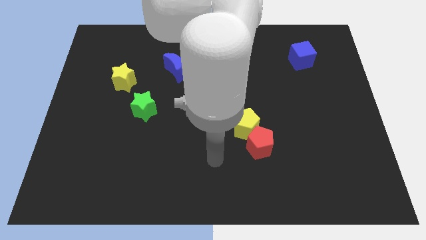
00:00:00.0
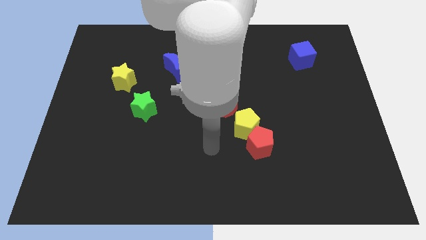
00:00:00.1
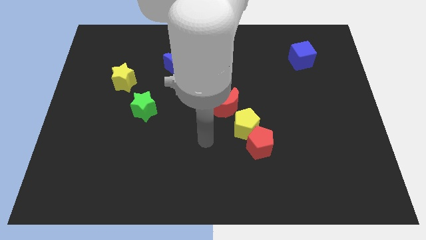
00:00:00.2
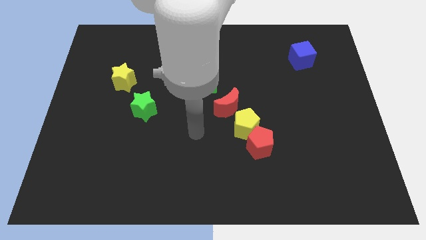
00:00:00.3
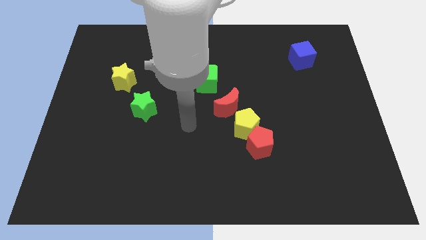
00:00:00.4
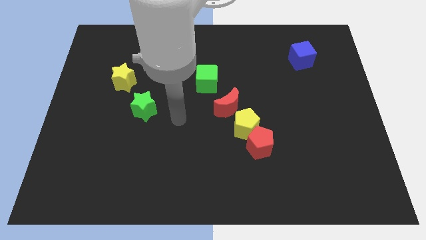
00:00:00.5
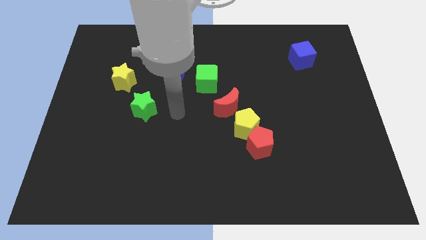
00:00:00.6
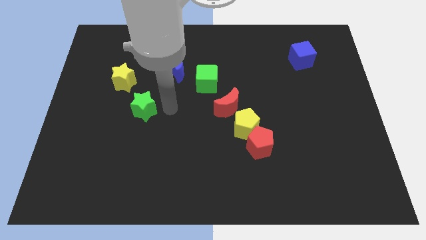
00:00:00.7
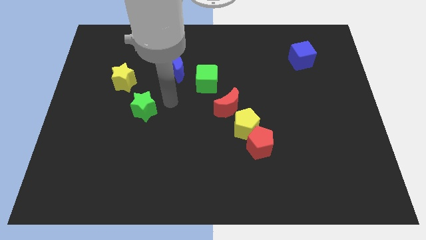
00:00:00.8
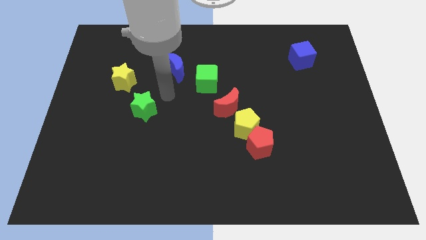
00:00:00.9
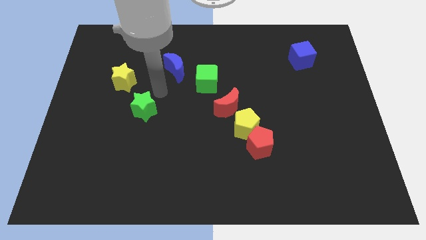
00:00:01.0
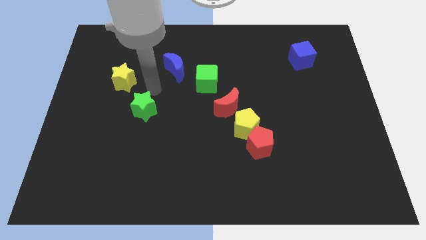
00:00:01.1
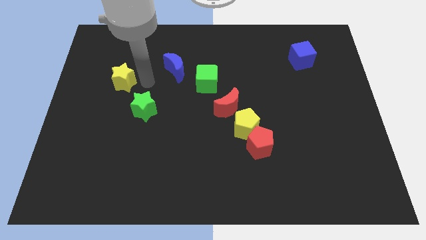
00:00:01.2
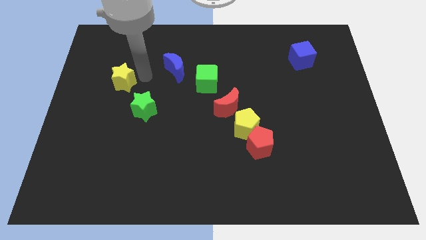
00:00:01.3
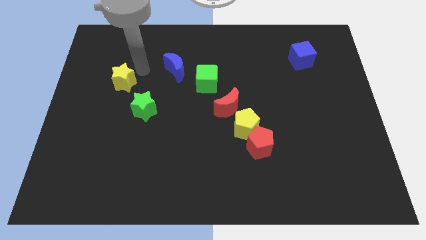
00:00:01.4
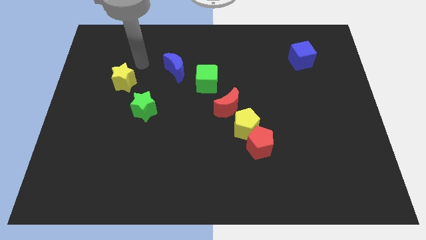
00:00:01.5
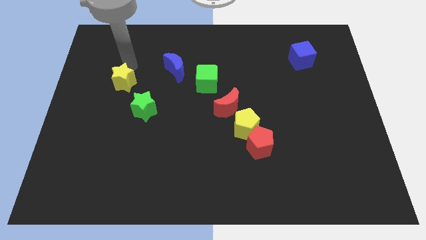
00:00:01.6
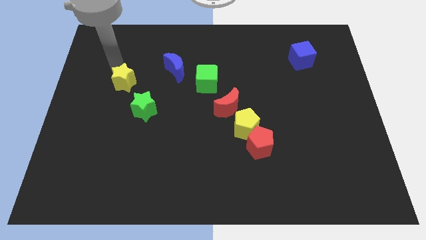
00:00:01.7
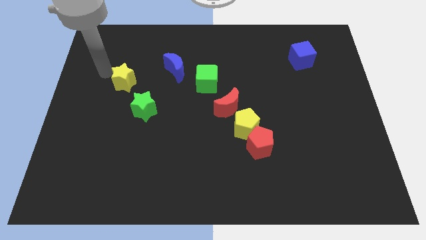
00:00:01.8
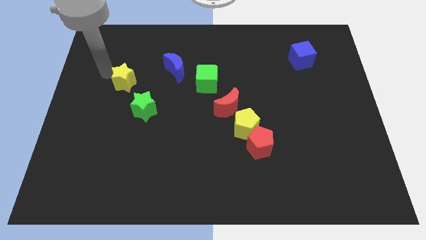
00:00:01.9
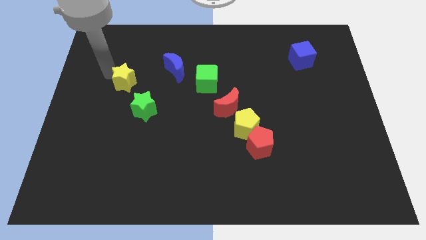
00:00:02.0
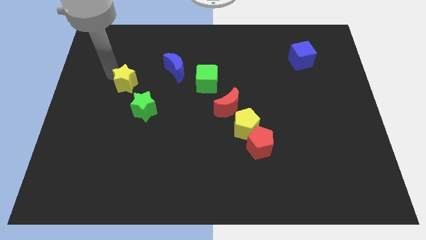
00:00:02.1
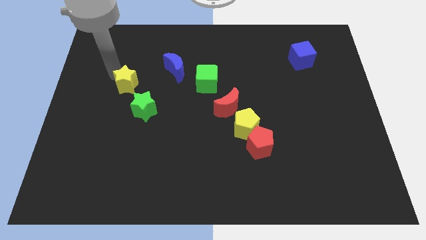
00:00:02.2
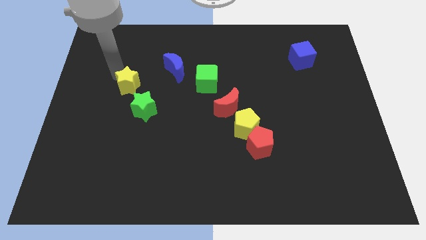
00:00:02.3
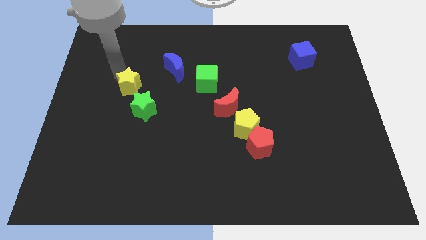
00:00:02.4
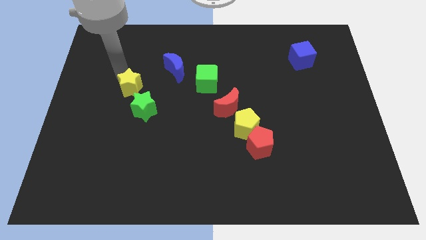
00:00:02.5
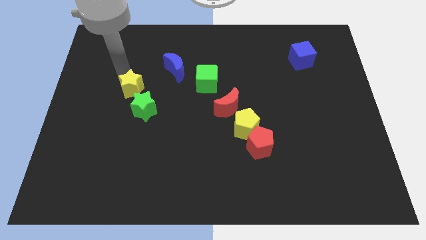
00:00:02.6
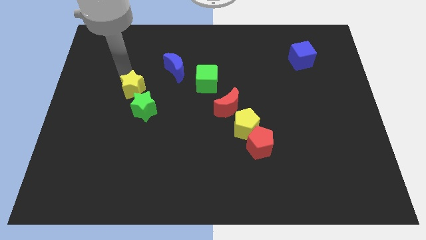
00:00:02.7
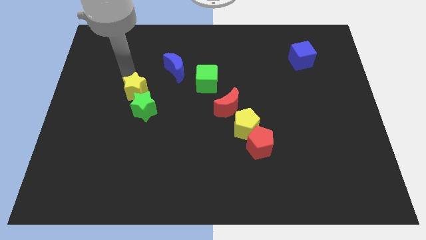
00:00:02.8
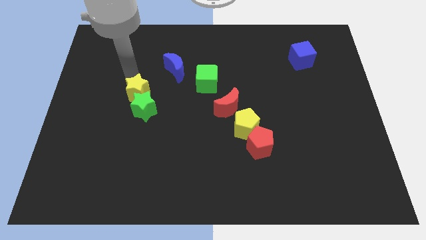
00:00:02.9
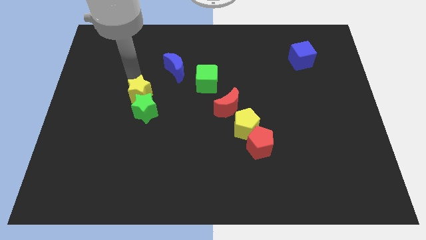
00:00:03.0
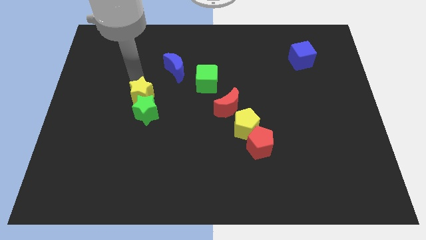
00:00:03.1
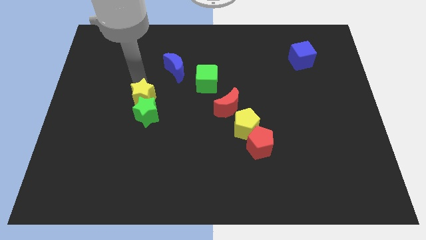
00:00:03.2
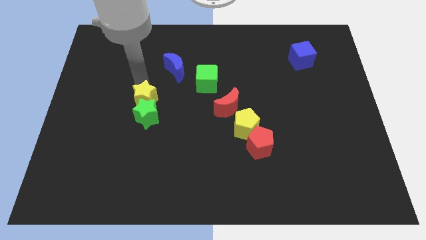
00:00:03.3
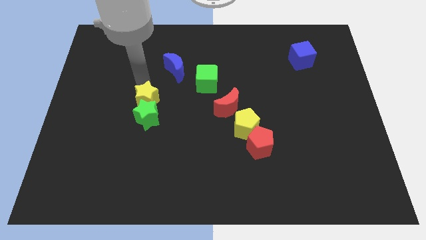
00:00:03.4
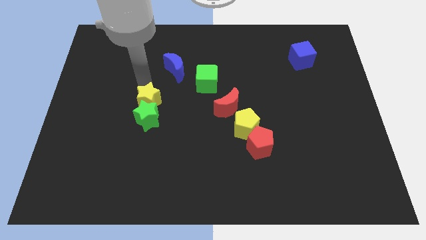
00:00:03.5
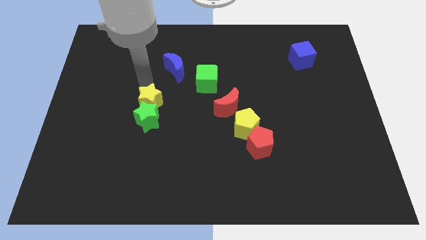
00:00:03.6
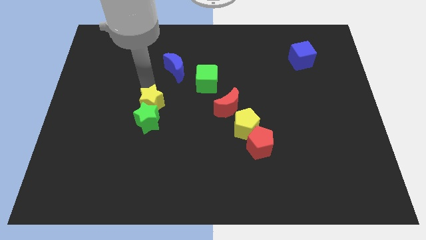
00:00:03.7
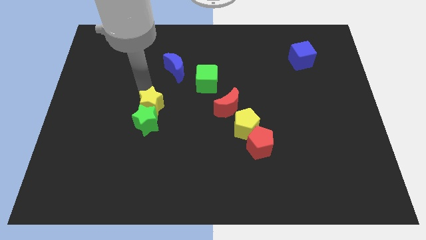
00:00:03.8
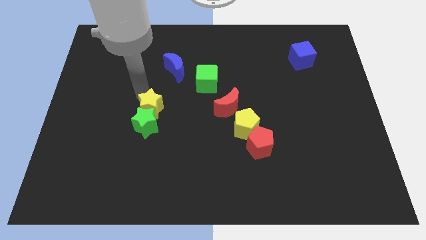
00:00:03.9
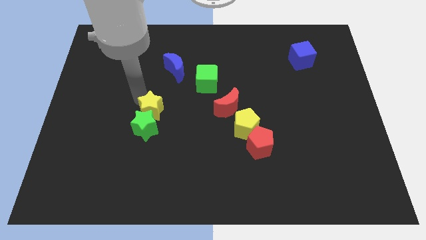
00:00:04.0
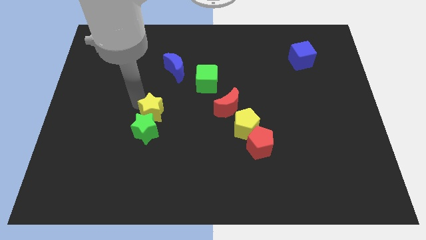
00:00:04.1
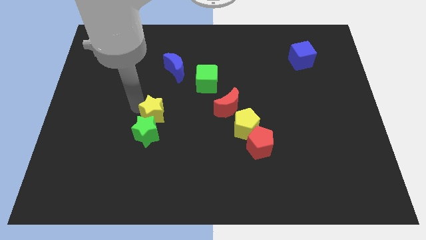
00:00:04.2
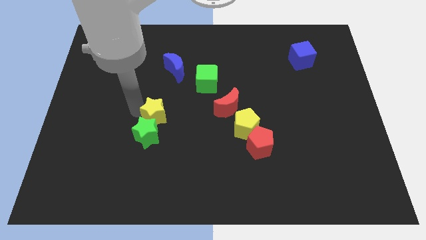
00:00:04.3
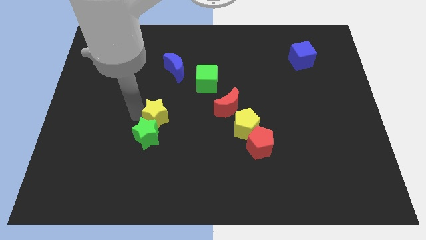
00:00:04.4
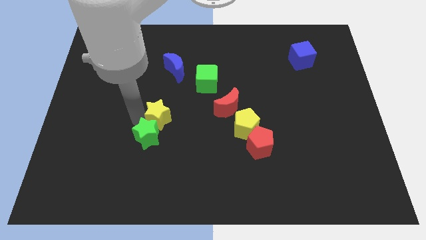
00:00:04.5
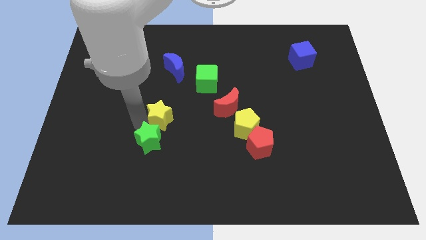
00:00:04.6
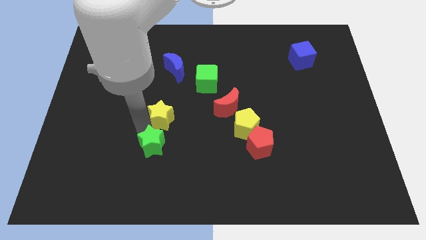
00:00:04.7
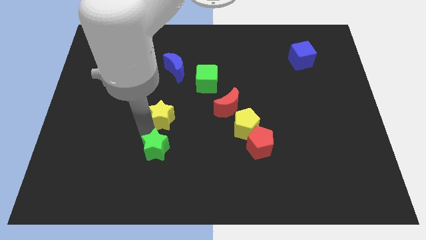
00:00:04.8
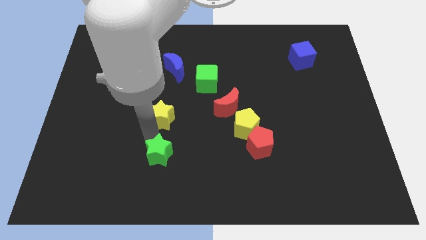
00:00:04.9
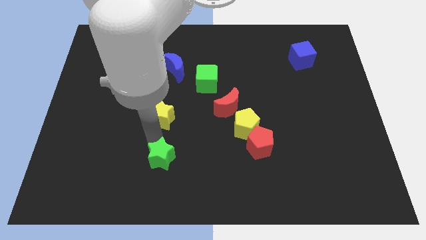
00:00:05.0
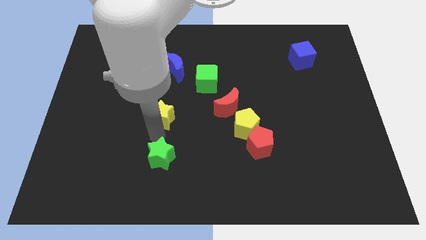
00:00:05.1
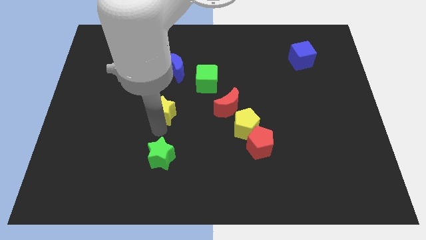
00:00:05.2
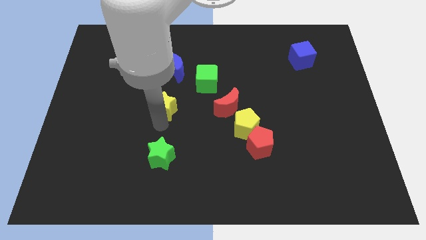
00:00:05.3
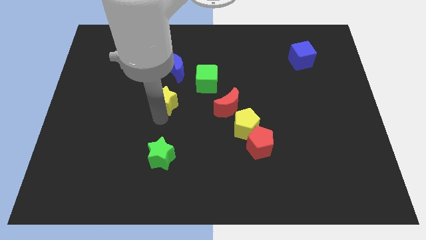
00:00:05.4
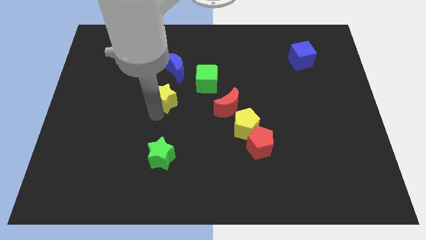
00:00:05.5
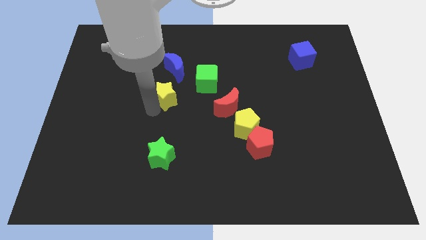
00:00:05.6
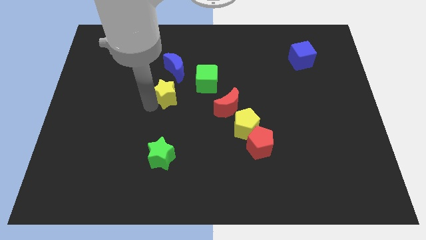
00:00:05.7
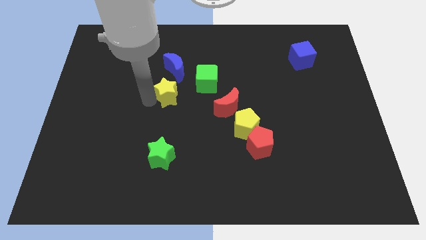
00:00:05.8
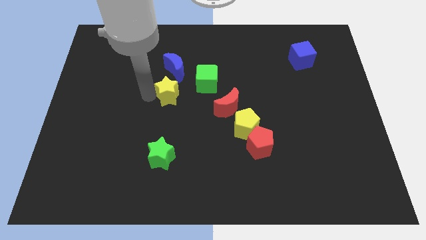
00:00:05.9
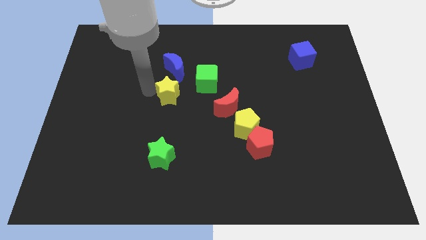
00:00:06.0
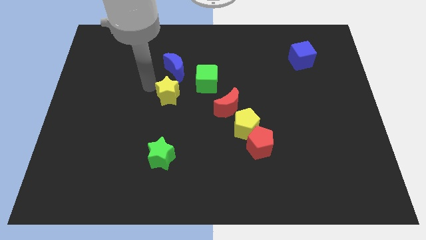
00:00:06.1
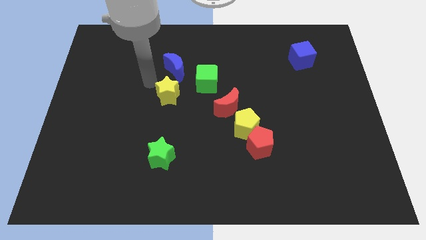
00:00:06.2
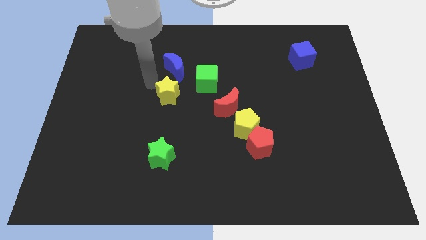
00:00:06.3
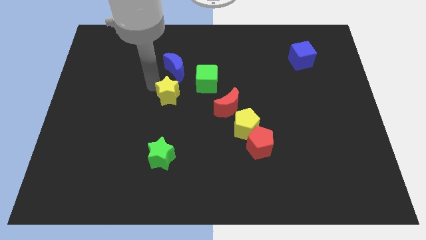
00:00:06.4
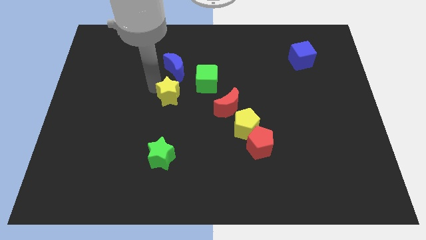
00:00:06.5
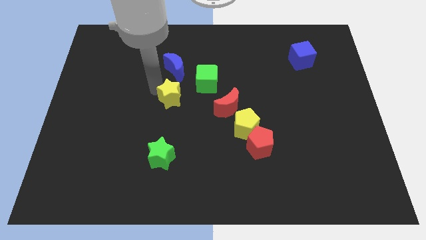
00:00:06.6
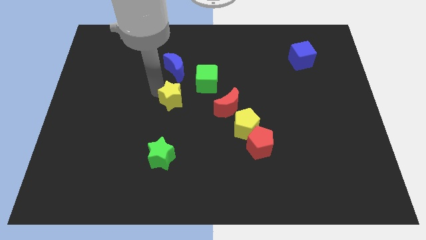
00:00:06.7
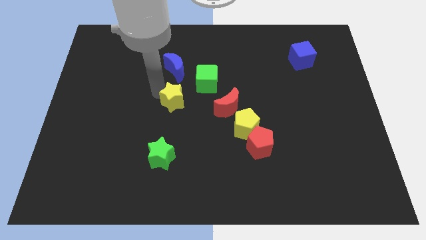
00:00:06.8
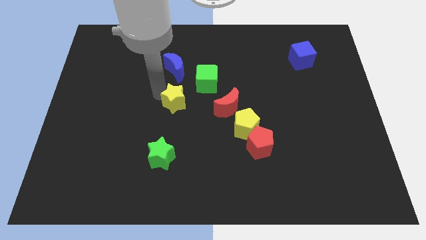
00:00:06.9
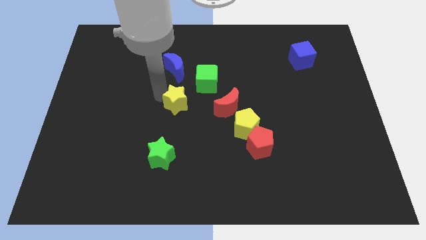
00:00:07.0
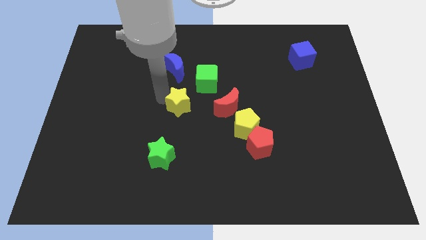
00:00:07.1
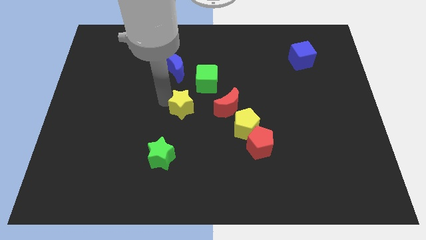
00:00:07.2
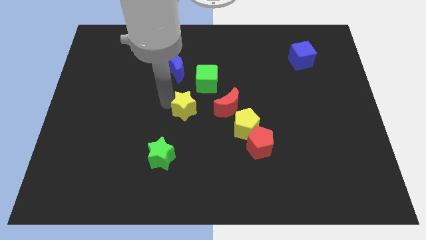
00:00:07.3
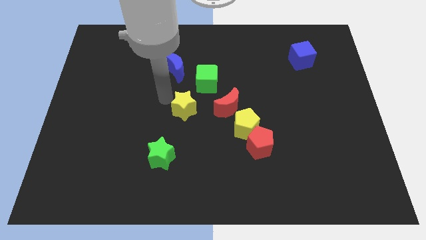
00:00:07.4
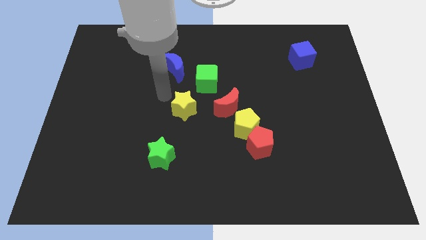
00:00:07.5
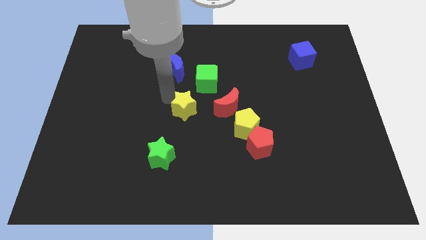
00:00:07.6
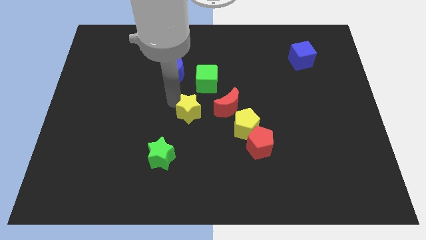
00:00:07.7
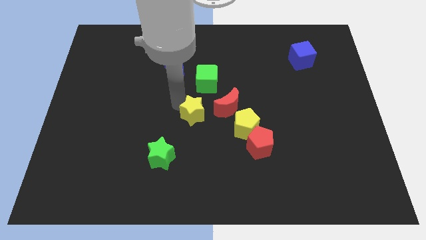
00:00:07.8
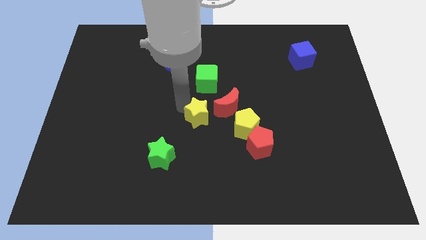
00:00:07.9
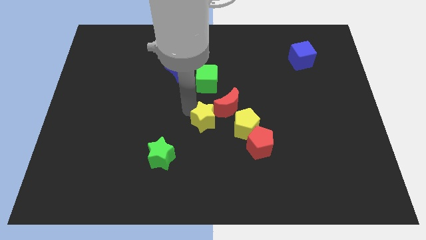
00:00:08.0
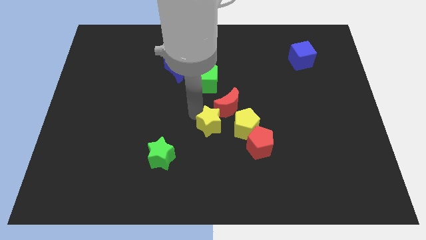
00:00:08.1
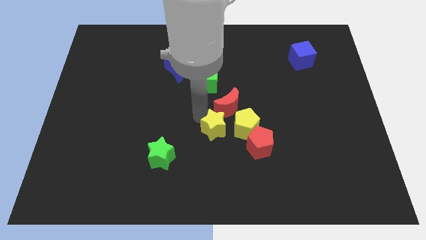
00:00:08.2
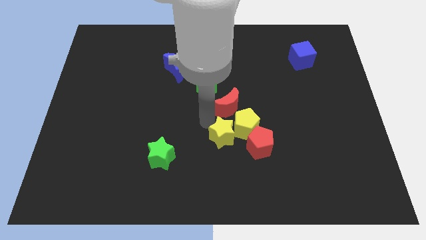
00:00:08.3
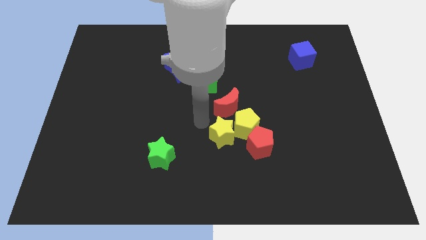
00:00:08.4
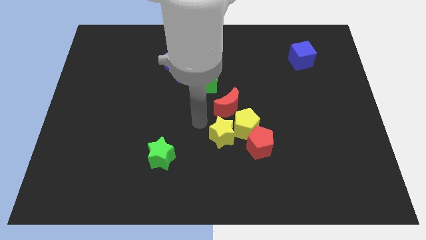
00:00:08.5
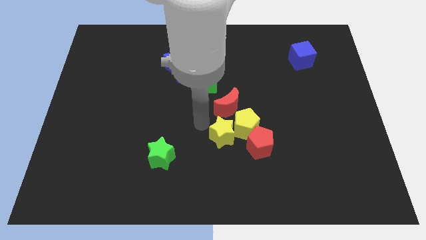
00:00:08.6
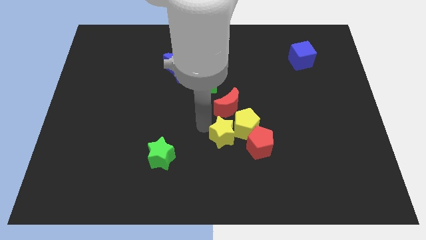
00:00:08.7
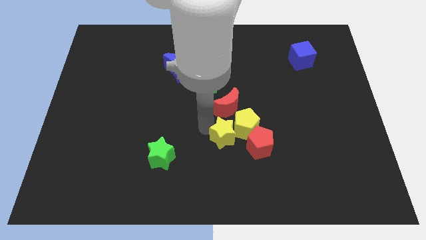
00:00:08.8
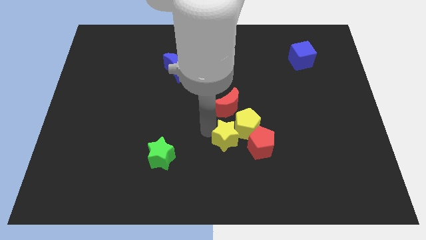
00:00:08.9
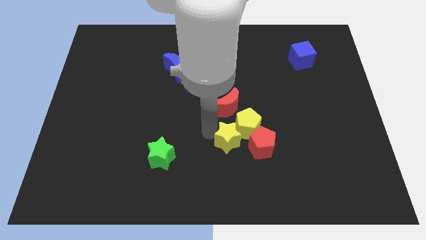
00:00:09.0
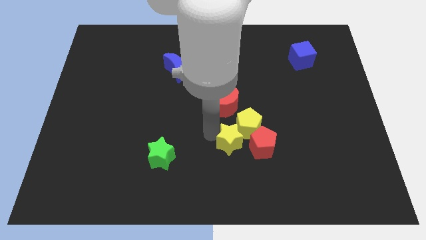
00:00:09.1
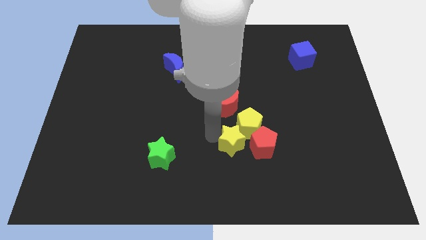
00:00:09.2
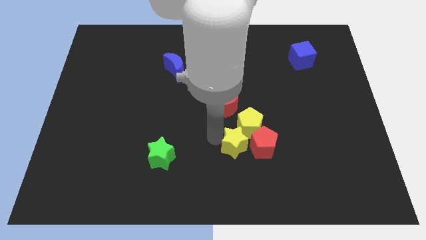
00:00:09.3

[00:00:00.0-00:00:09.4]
put the yellow star to the red pentagon
